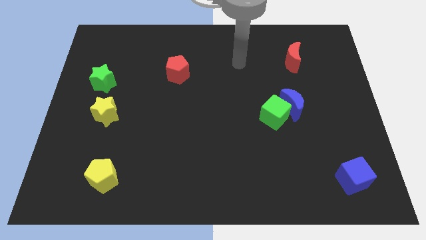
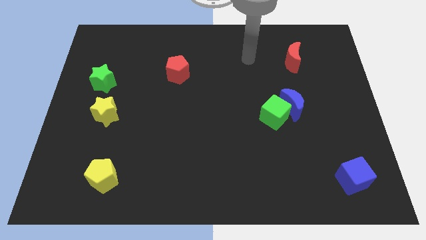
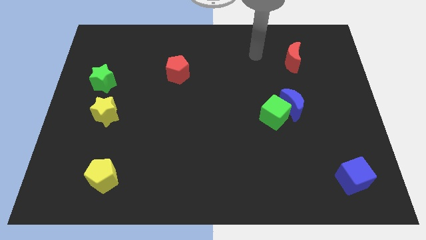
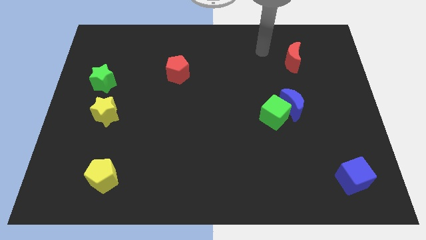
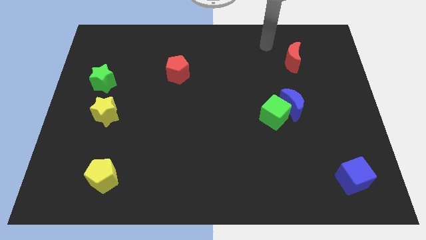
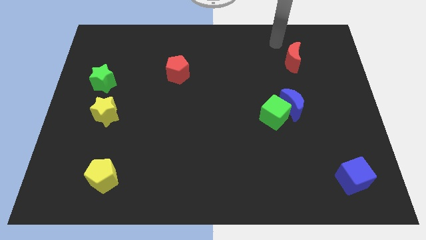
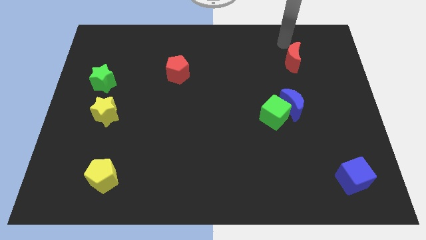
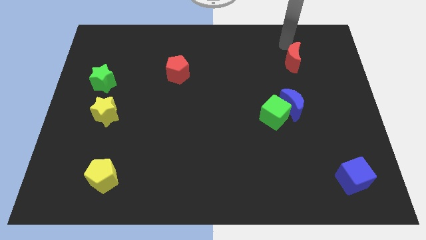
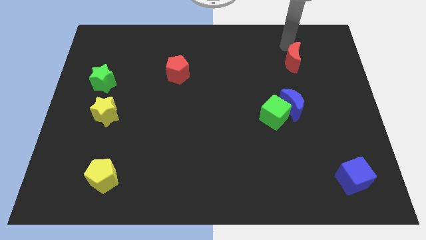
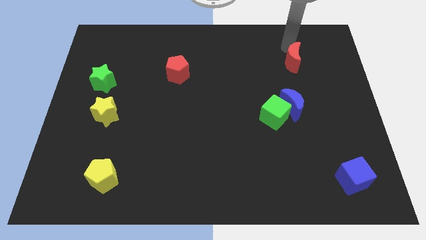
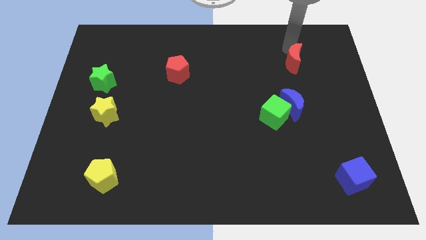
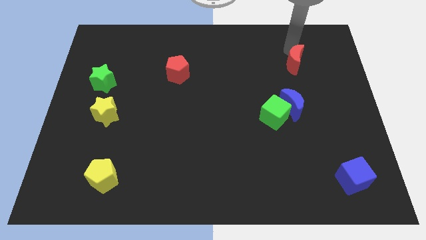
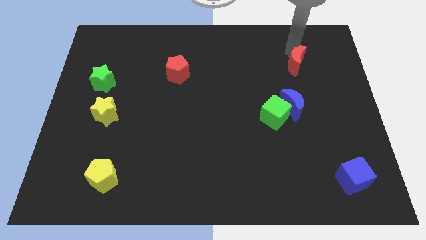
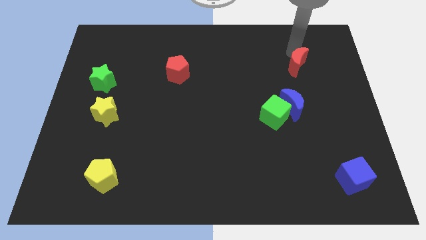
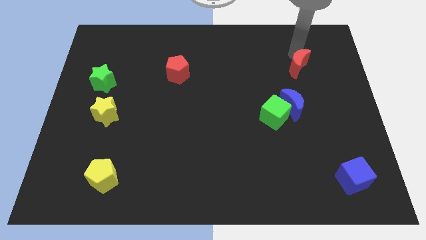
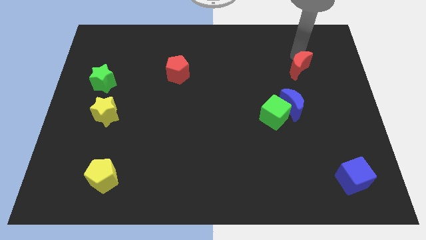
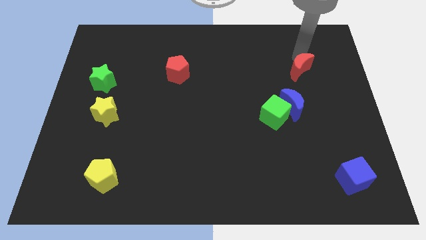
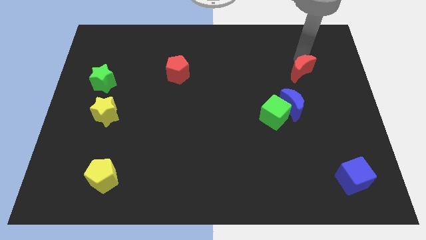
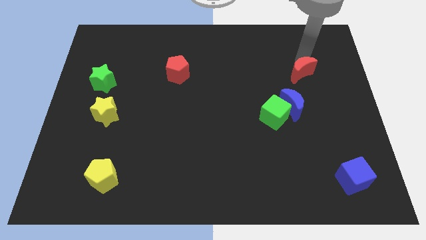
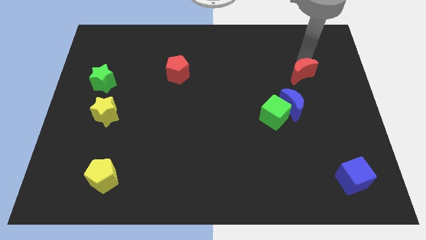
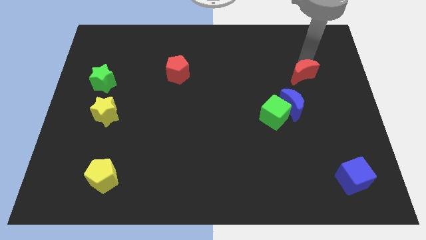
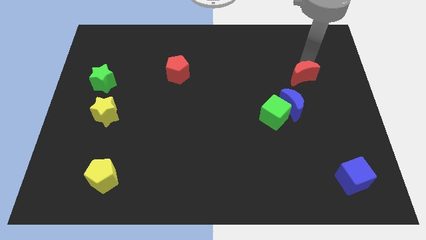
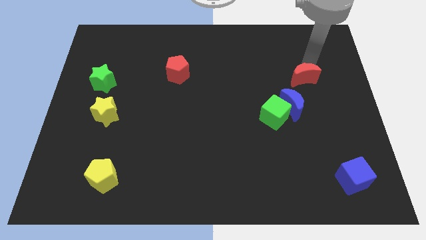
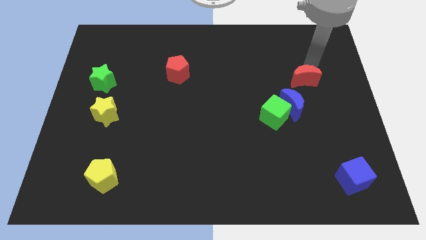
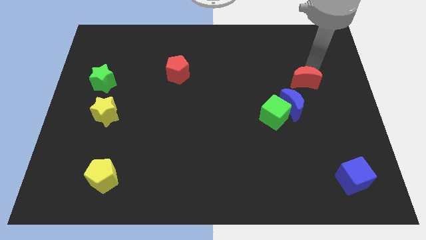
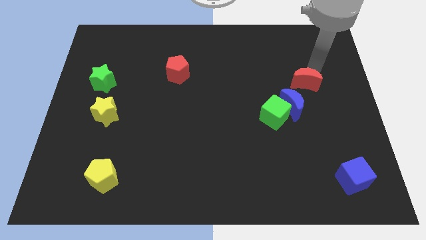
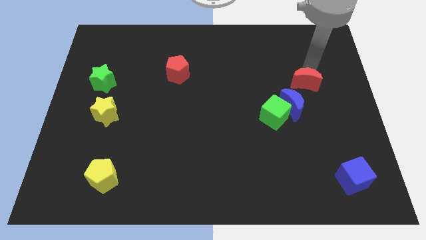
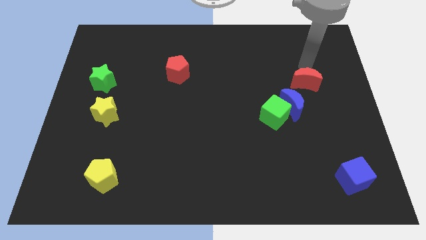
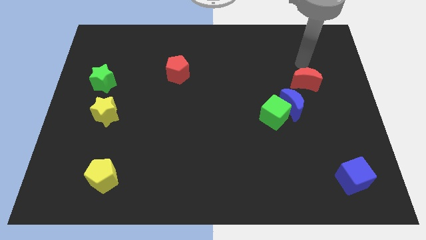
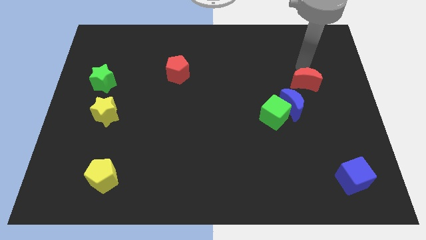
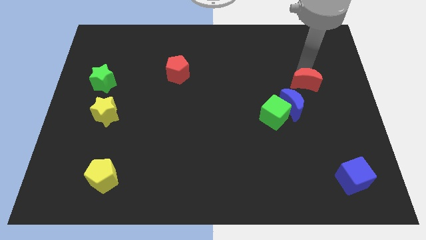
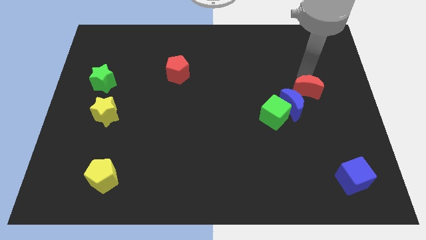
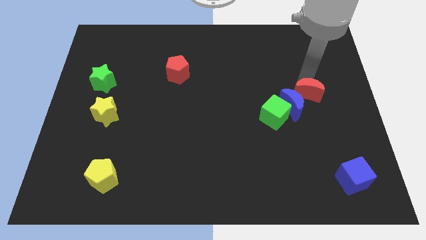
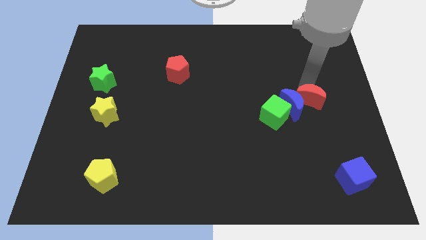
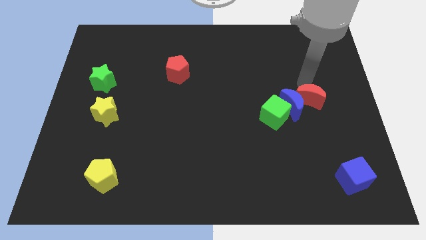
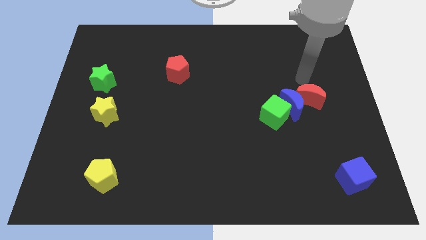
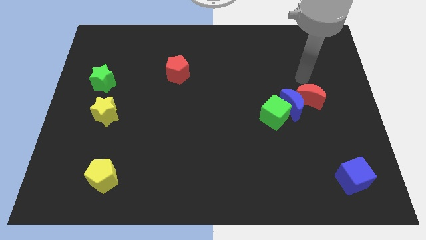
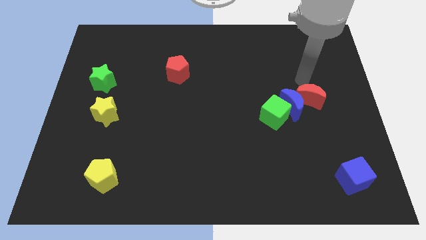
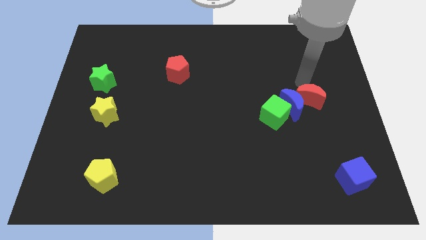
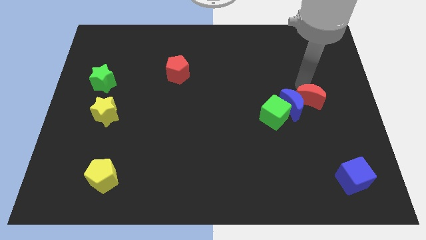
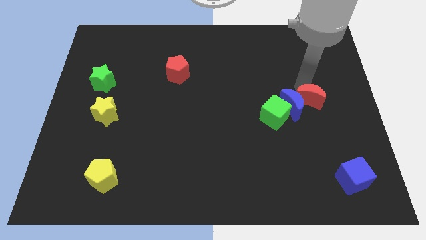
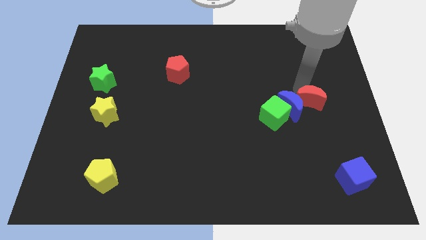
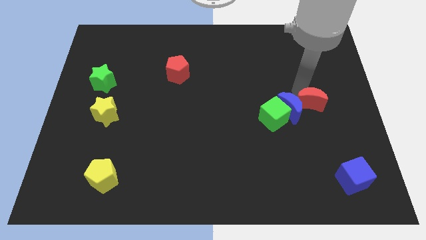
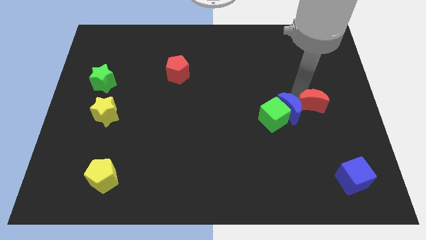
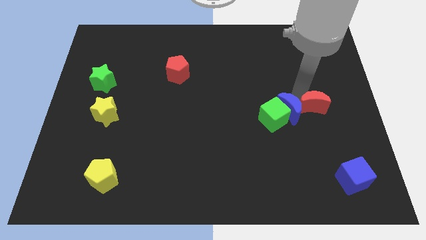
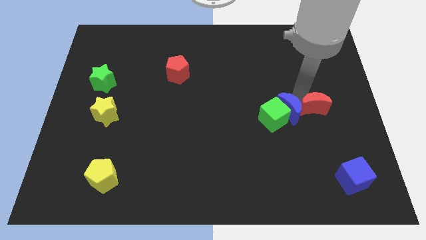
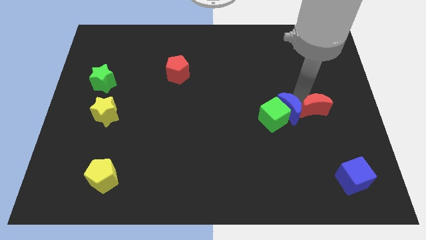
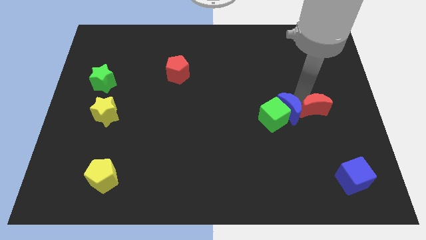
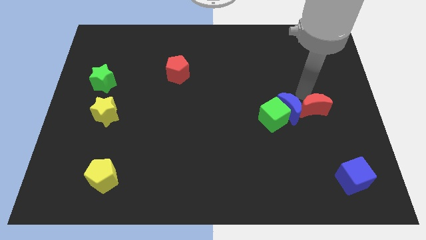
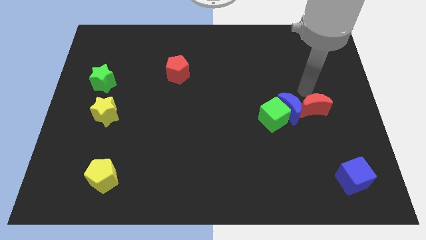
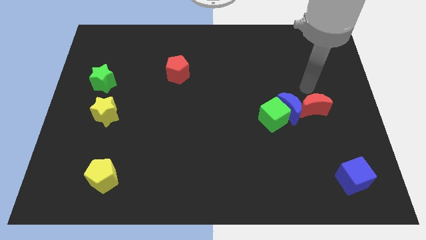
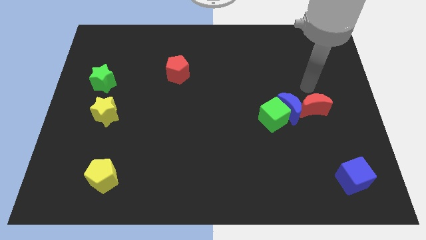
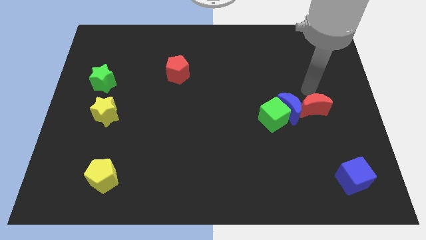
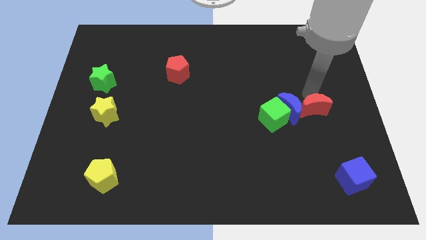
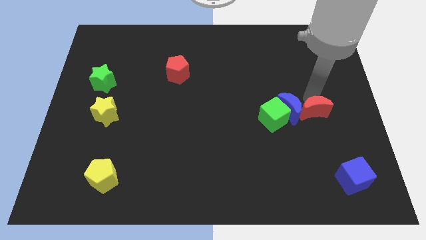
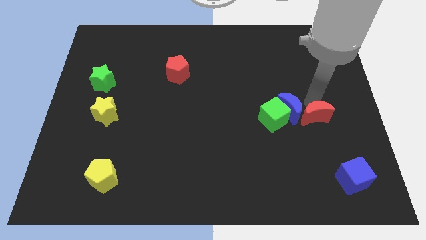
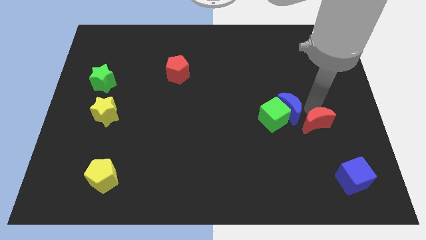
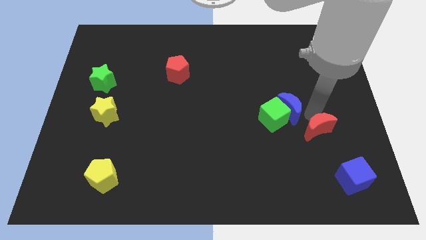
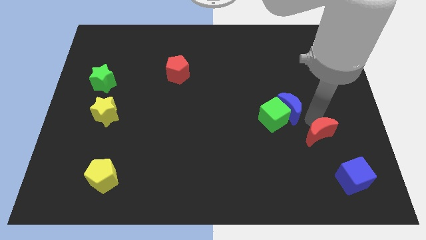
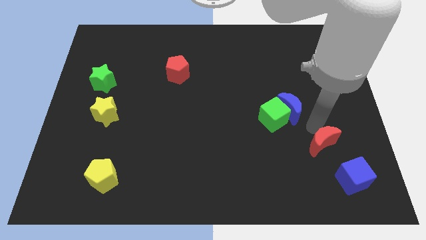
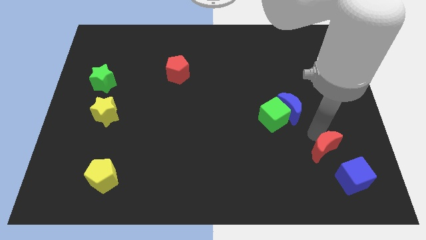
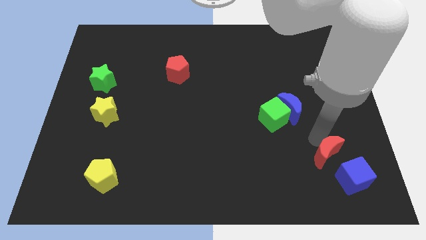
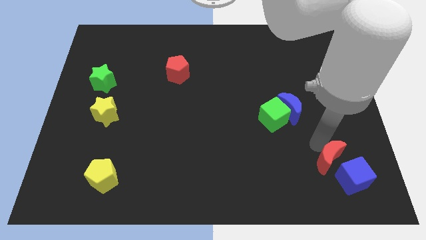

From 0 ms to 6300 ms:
push the red moon to the blue cube

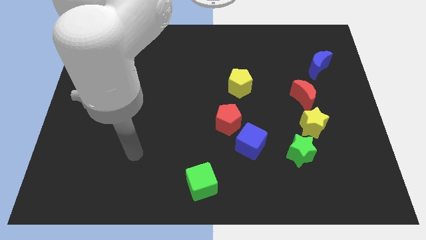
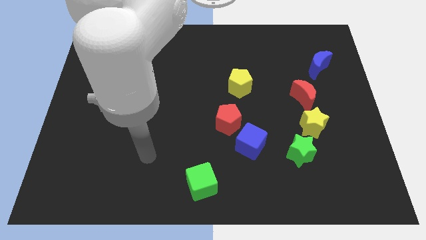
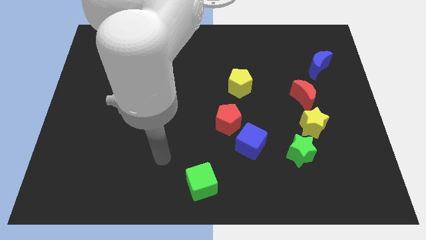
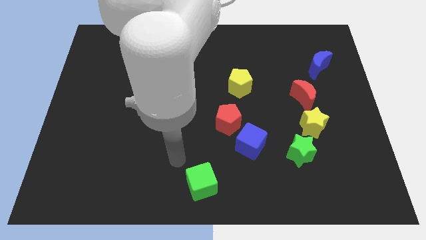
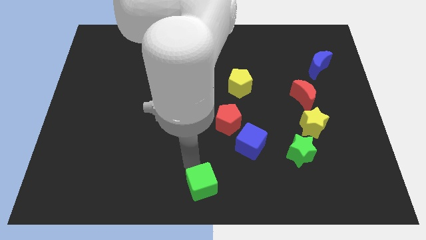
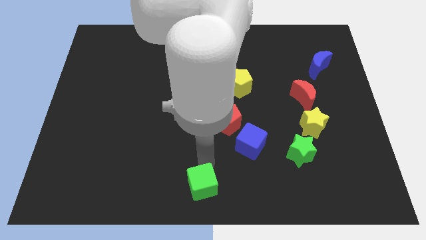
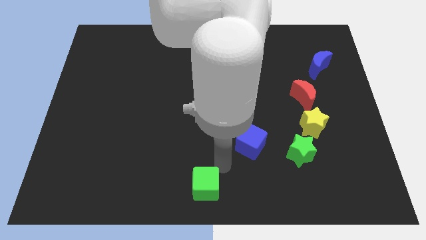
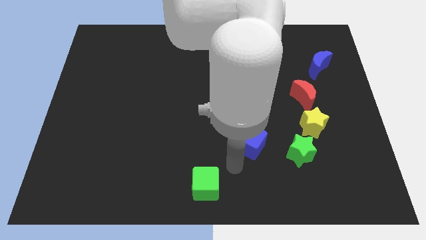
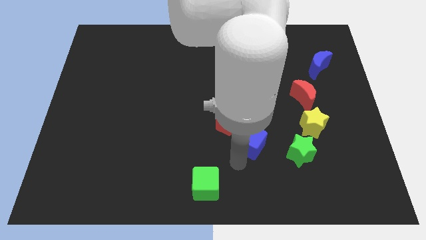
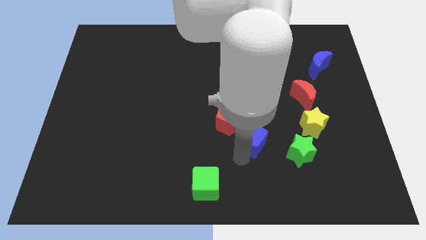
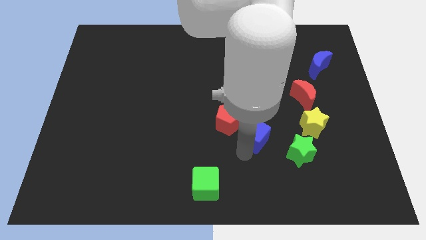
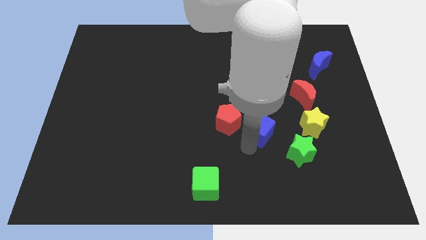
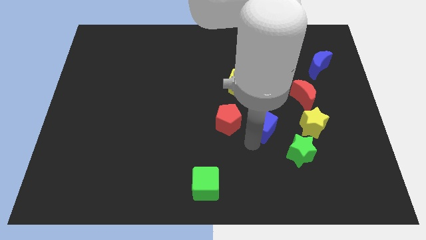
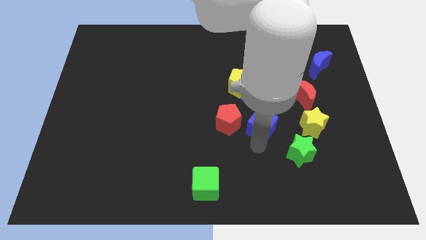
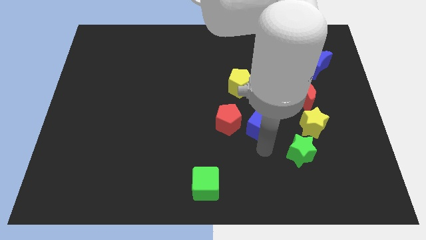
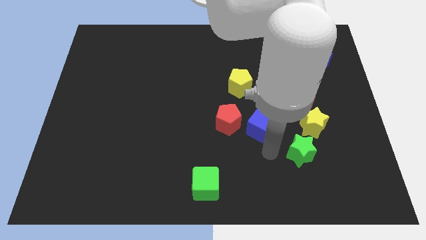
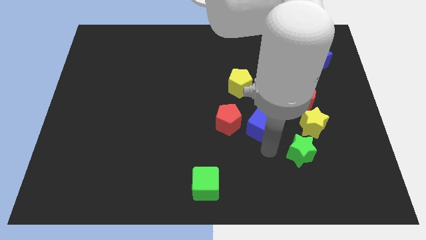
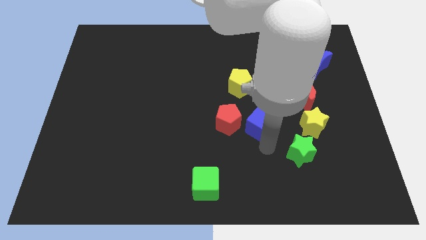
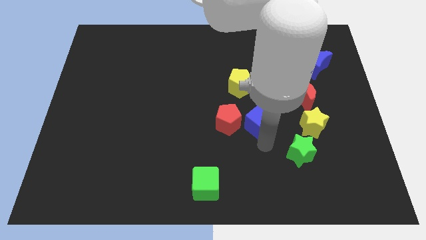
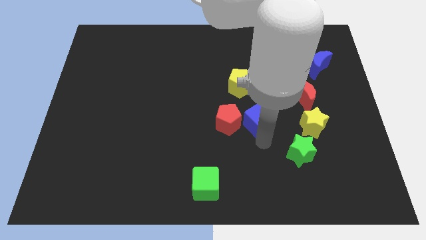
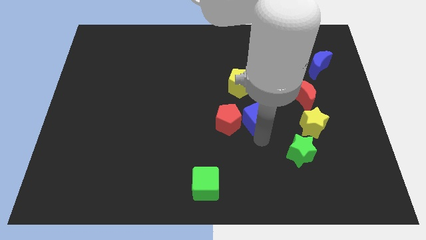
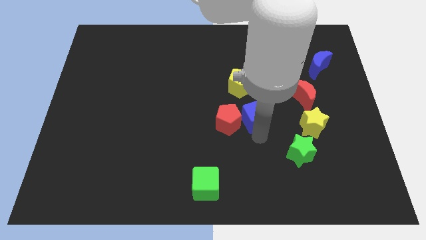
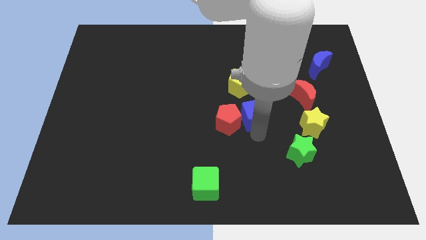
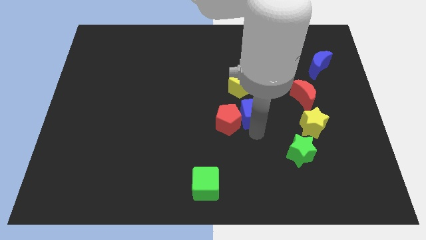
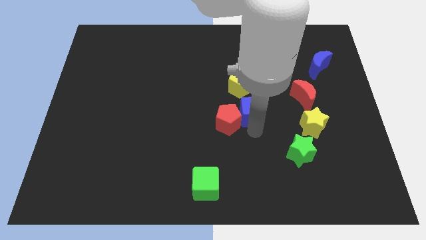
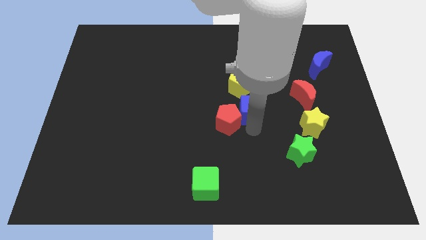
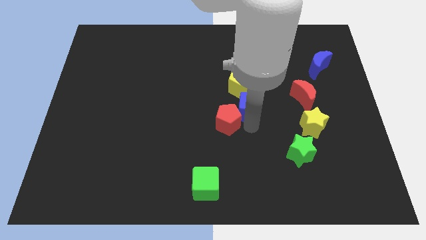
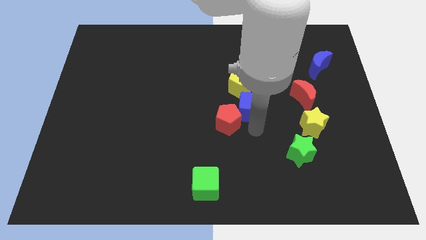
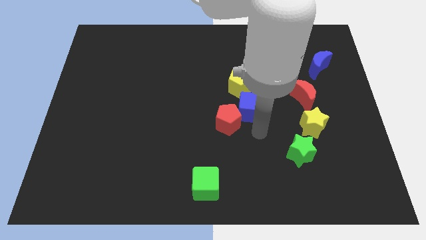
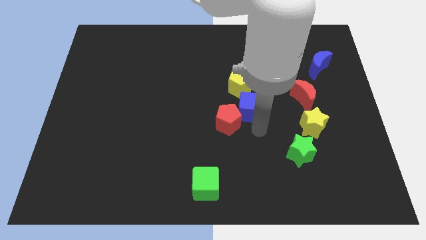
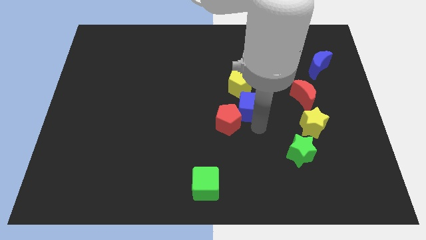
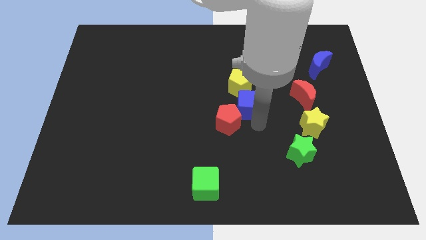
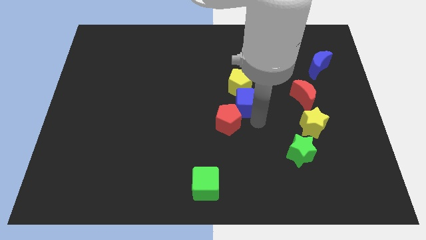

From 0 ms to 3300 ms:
slide the blue cube to the yellow pentagon
